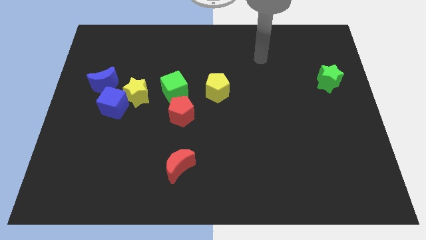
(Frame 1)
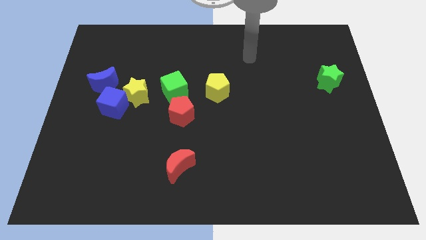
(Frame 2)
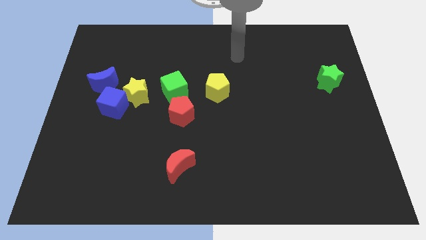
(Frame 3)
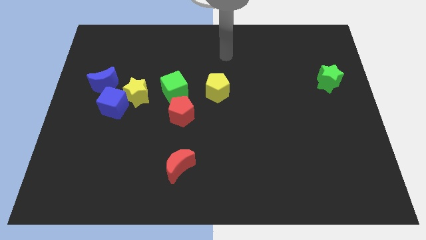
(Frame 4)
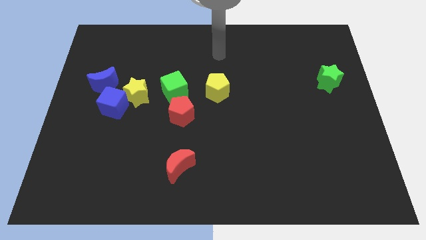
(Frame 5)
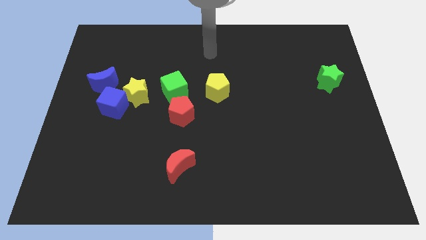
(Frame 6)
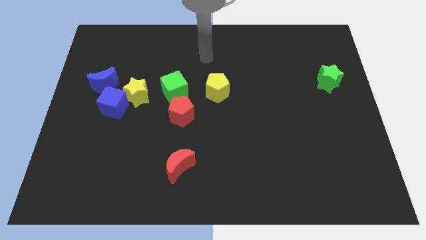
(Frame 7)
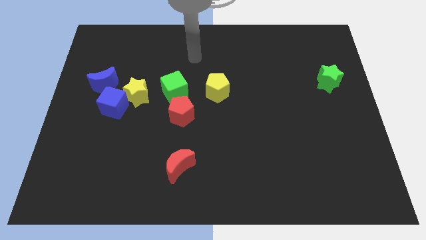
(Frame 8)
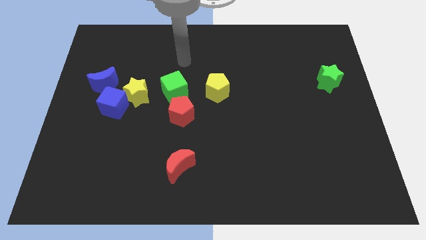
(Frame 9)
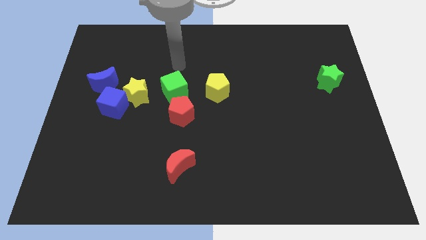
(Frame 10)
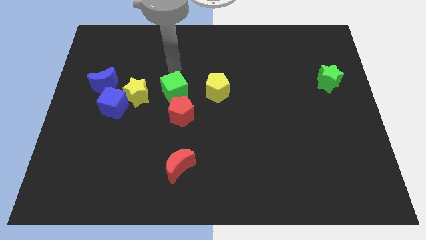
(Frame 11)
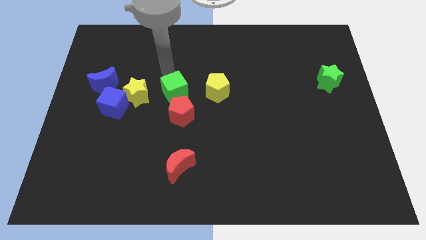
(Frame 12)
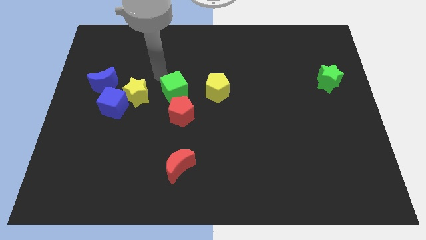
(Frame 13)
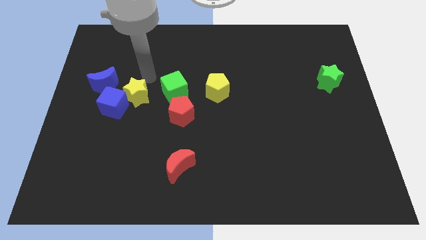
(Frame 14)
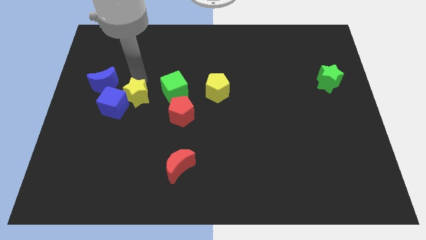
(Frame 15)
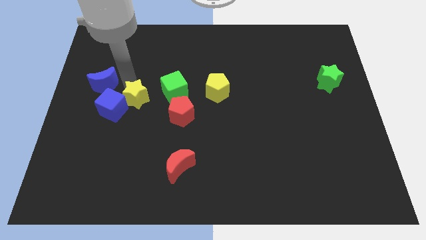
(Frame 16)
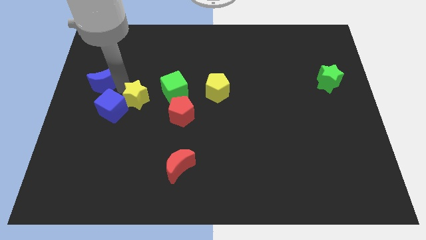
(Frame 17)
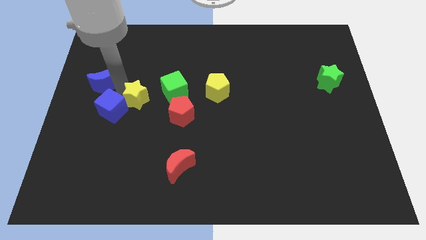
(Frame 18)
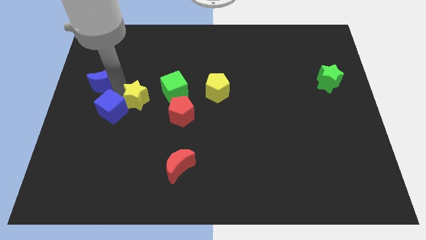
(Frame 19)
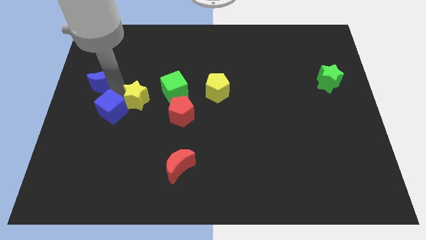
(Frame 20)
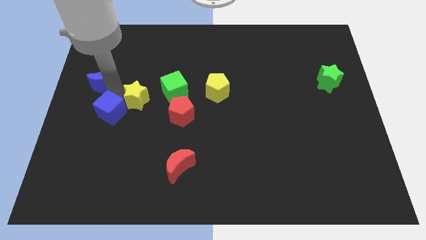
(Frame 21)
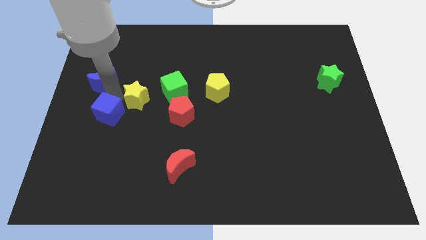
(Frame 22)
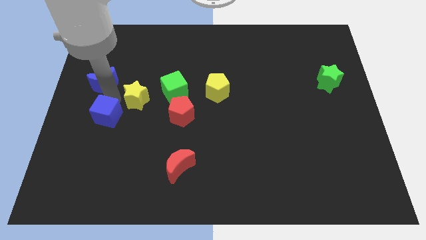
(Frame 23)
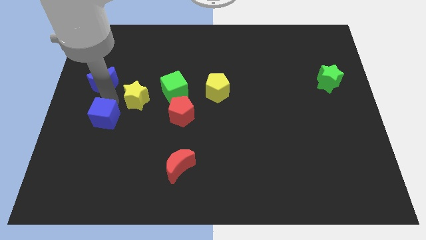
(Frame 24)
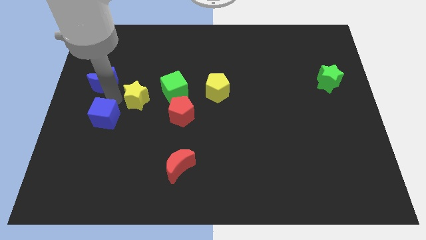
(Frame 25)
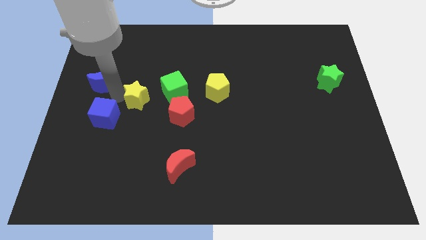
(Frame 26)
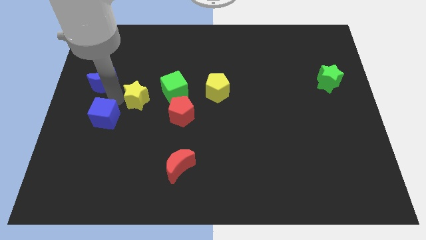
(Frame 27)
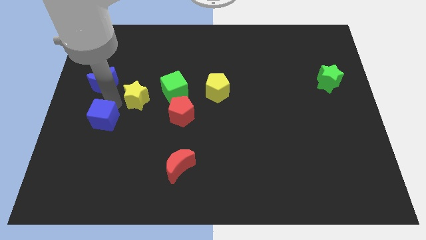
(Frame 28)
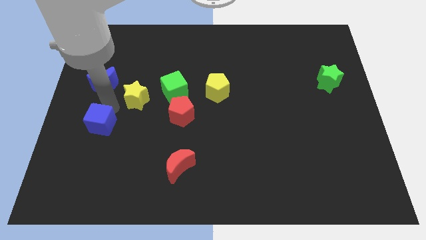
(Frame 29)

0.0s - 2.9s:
separate the blue cube from the yellow star and blue moon

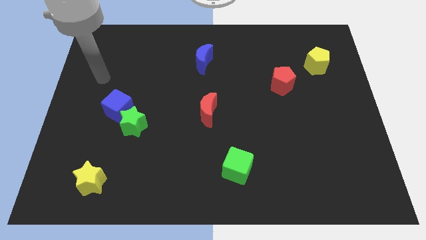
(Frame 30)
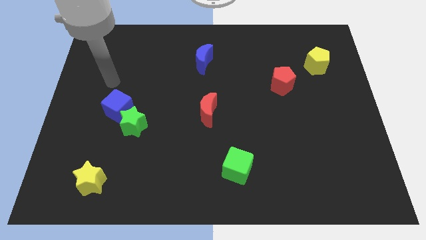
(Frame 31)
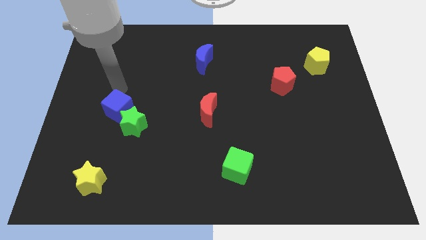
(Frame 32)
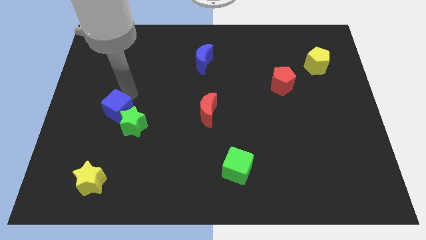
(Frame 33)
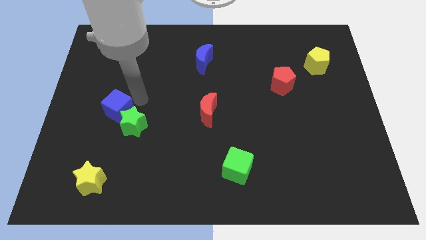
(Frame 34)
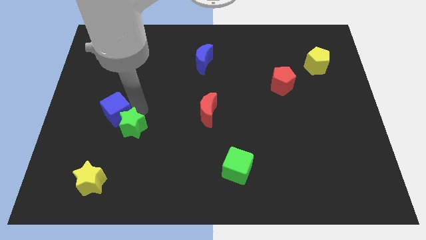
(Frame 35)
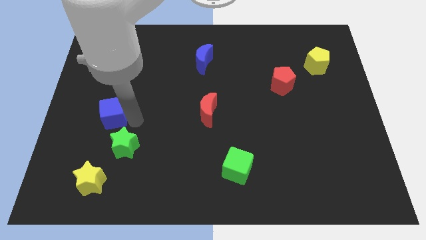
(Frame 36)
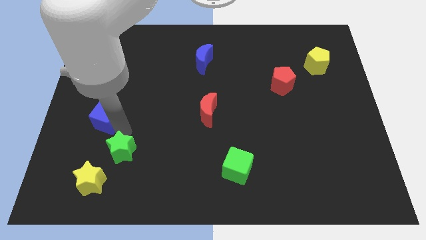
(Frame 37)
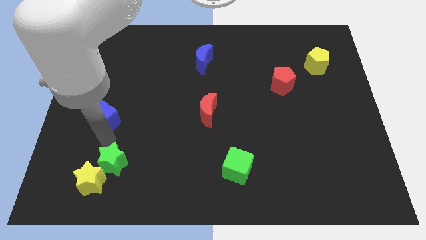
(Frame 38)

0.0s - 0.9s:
separate the blue cube from the green star

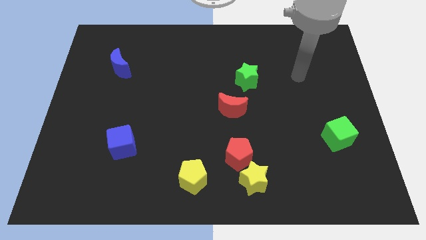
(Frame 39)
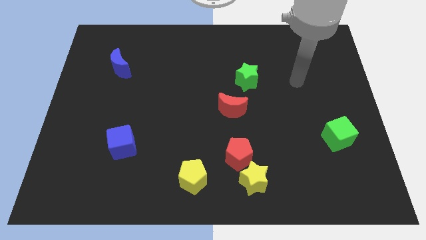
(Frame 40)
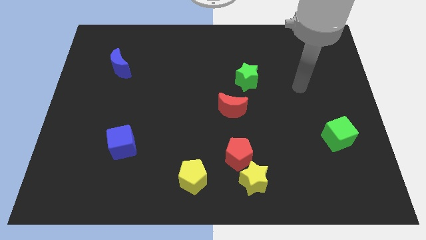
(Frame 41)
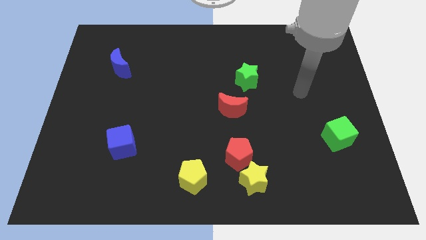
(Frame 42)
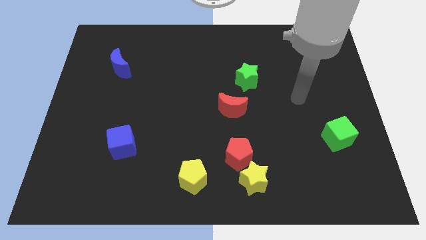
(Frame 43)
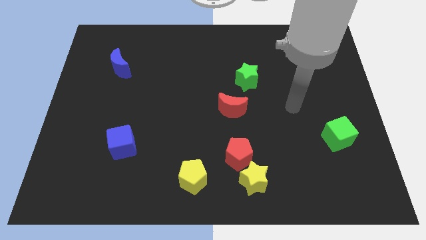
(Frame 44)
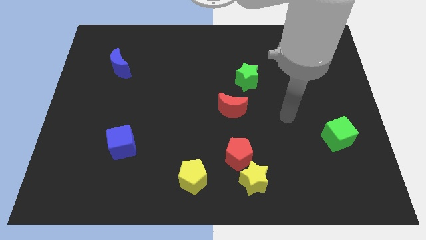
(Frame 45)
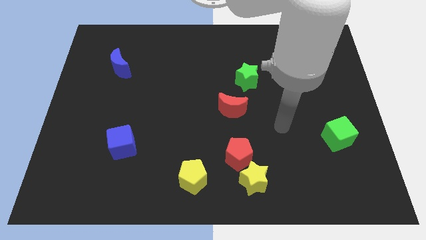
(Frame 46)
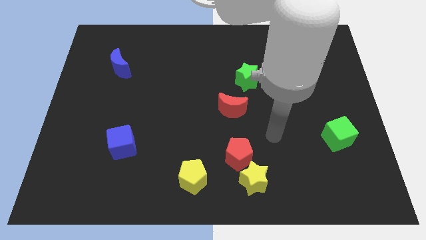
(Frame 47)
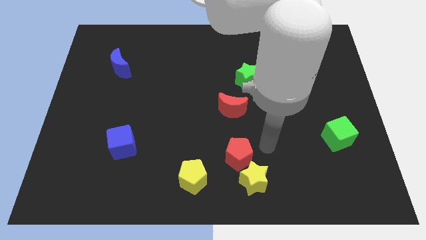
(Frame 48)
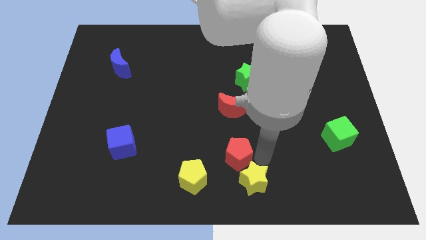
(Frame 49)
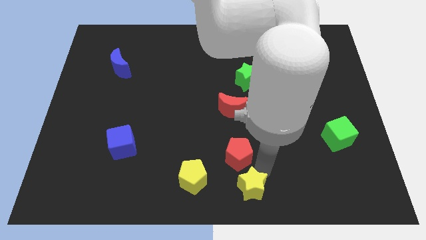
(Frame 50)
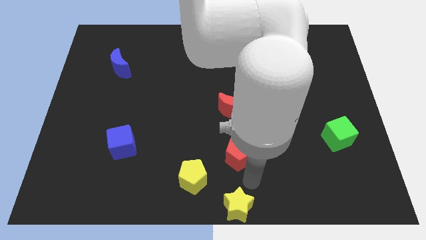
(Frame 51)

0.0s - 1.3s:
pull the red pentagon apart from the yellow star

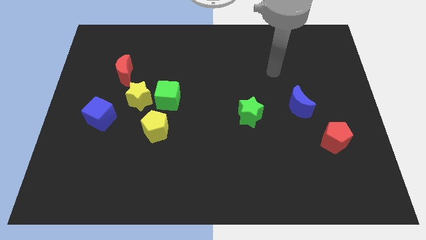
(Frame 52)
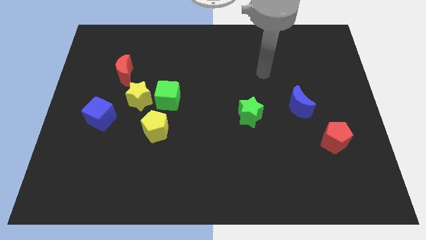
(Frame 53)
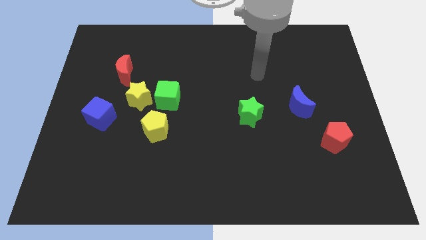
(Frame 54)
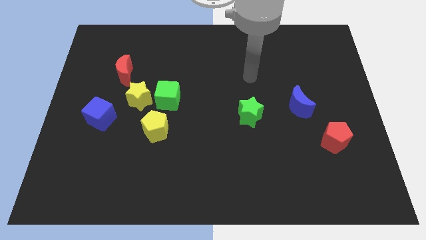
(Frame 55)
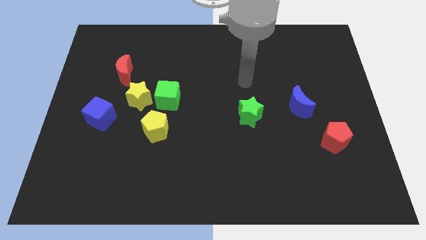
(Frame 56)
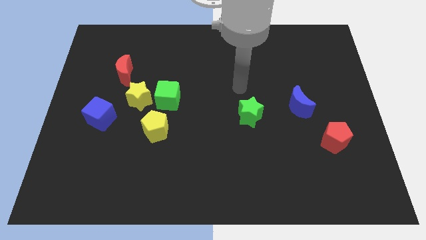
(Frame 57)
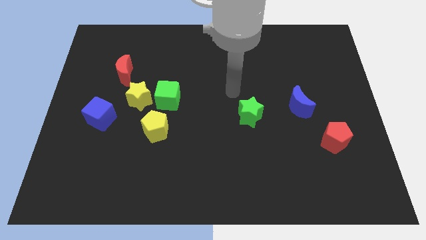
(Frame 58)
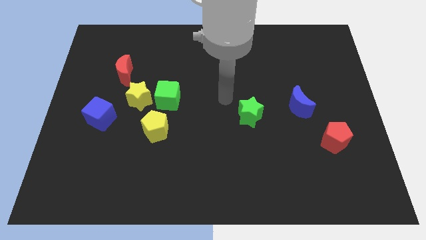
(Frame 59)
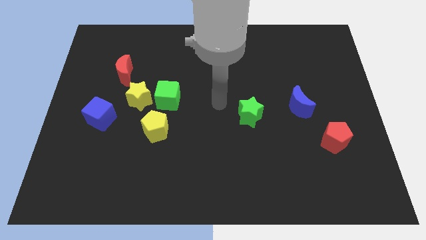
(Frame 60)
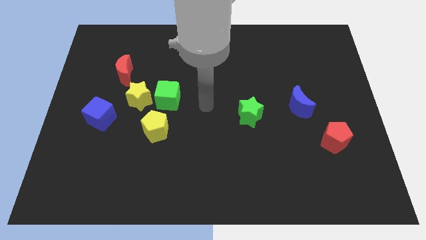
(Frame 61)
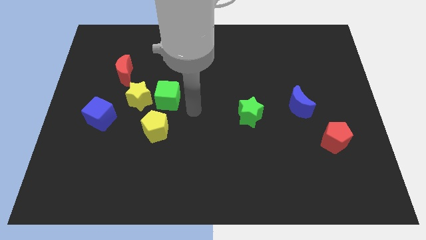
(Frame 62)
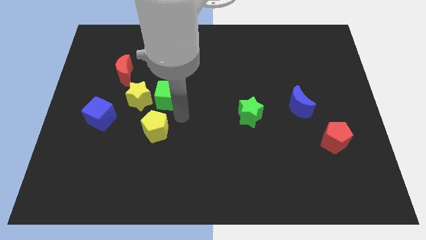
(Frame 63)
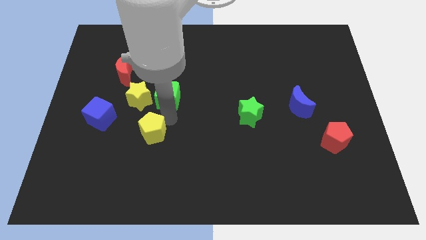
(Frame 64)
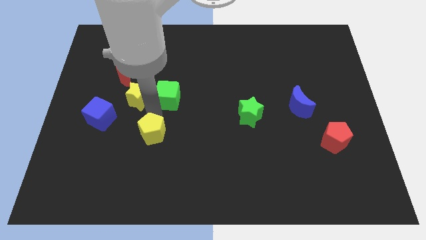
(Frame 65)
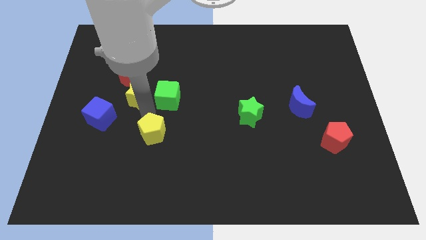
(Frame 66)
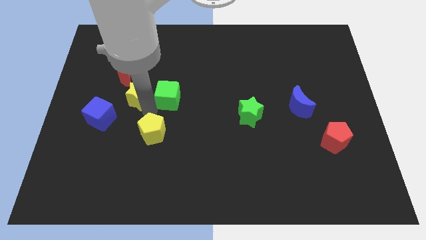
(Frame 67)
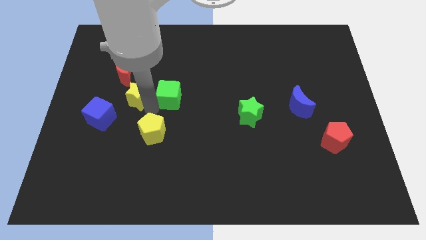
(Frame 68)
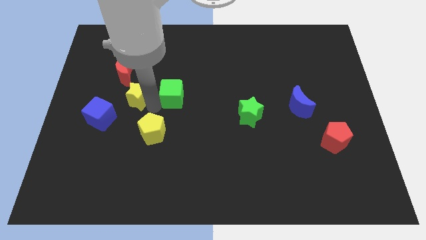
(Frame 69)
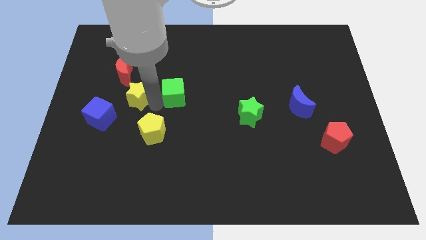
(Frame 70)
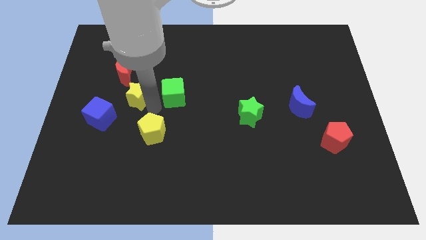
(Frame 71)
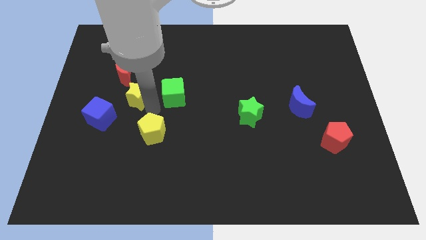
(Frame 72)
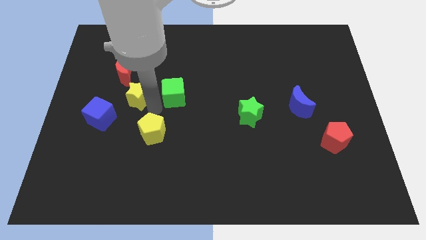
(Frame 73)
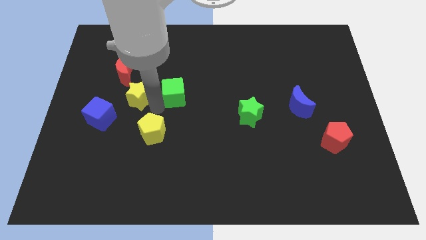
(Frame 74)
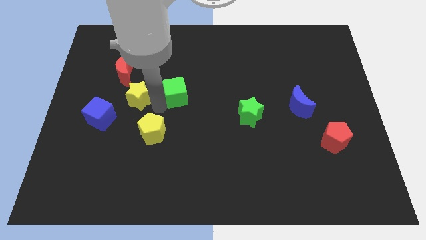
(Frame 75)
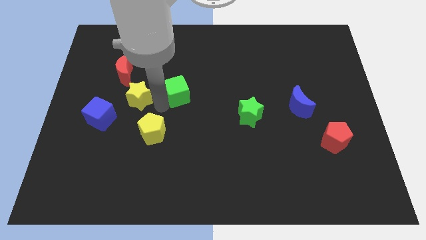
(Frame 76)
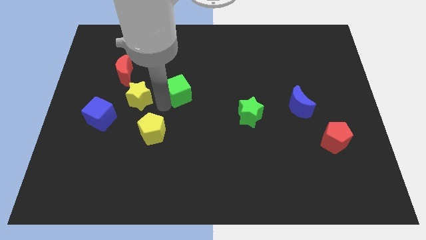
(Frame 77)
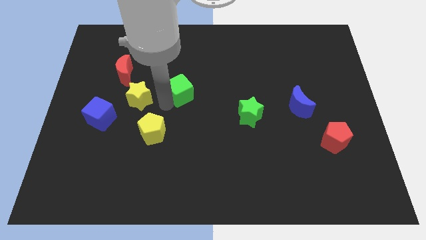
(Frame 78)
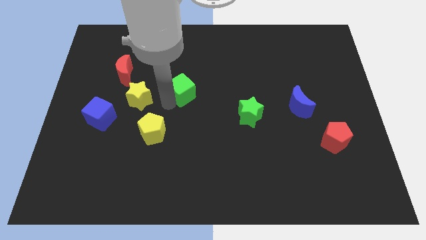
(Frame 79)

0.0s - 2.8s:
pull the green cube apart from the yellow star and yellow pentagon

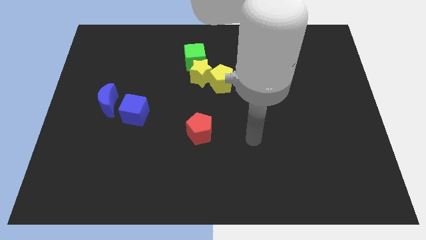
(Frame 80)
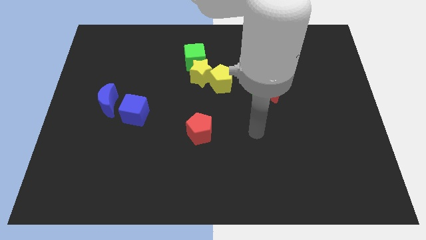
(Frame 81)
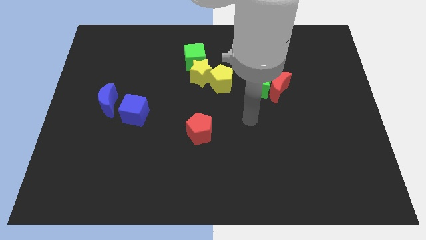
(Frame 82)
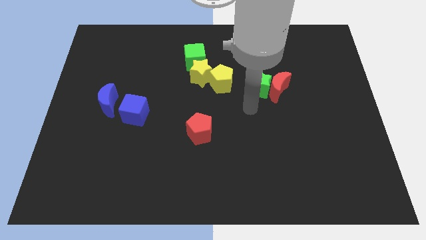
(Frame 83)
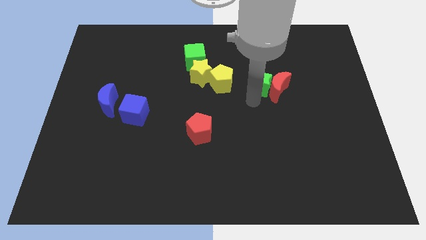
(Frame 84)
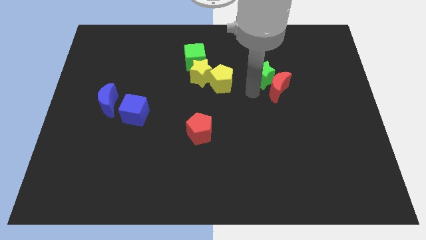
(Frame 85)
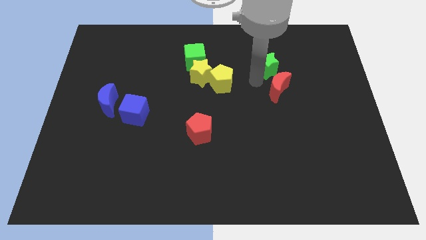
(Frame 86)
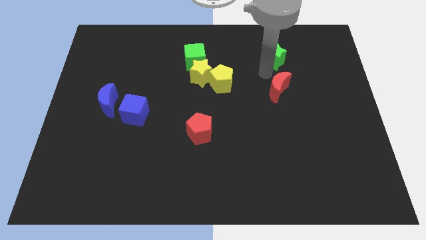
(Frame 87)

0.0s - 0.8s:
move the red moon away from the green star

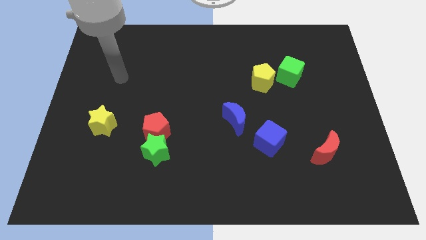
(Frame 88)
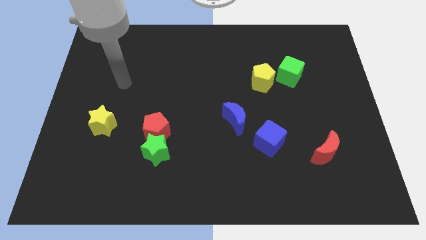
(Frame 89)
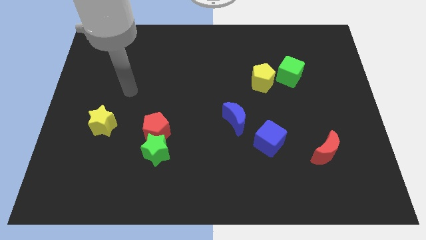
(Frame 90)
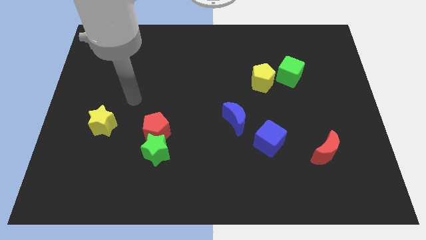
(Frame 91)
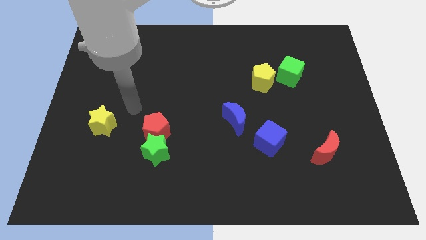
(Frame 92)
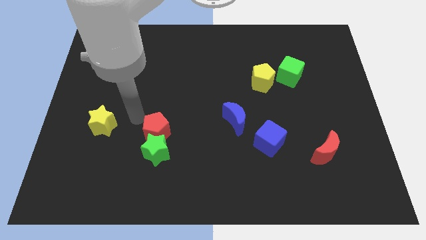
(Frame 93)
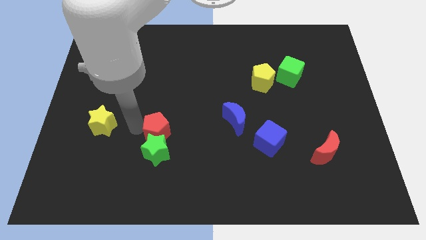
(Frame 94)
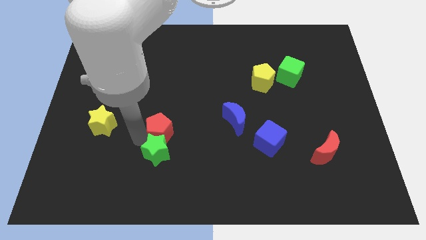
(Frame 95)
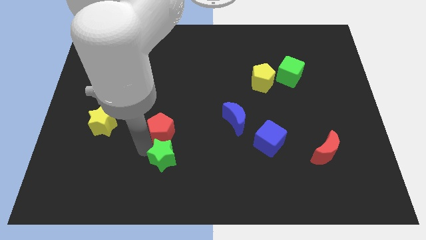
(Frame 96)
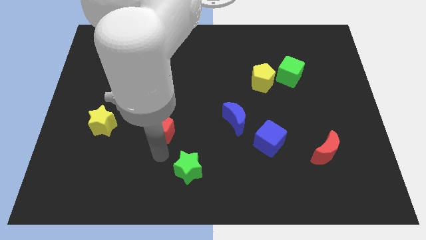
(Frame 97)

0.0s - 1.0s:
separate the red pentagon from the green star
